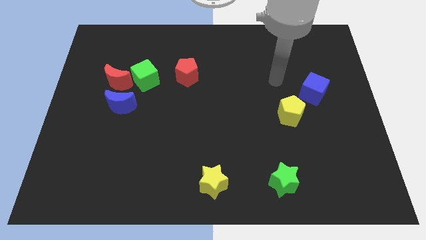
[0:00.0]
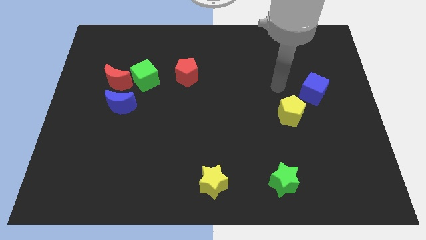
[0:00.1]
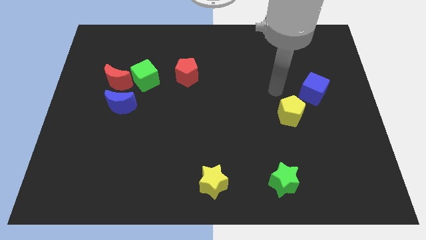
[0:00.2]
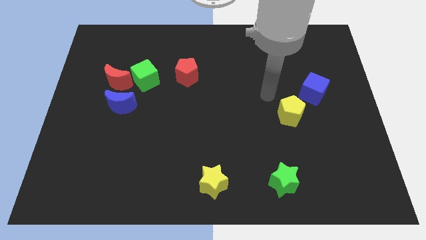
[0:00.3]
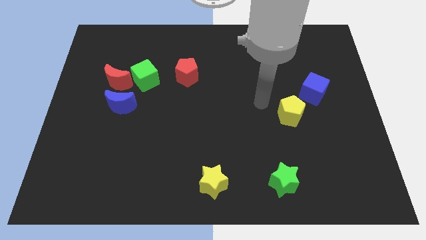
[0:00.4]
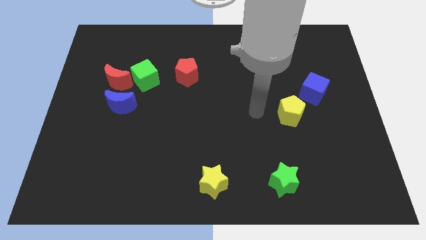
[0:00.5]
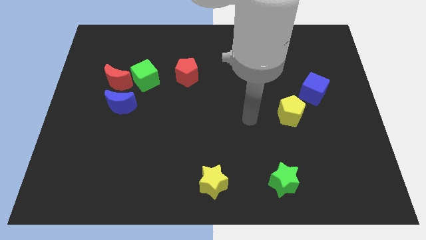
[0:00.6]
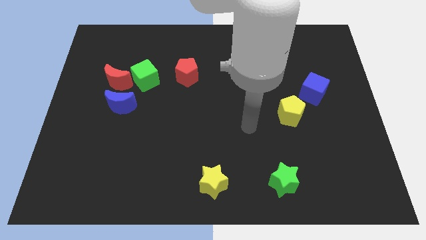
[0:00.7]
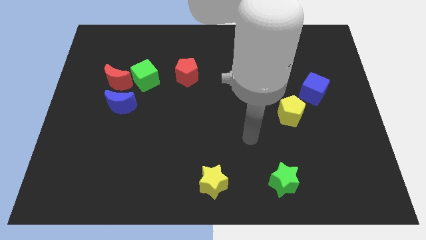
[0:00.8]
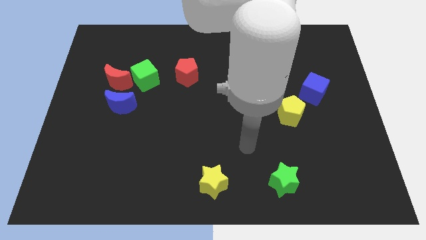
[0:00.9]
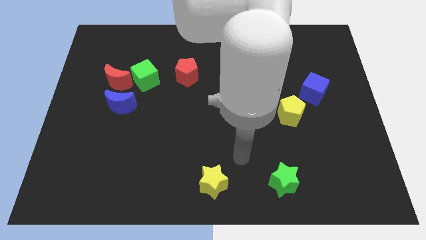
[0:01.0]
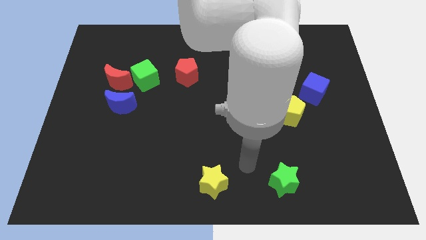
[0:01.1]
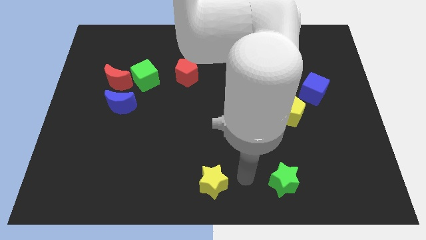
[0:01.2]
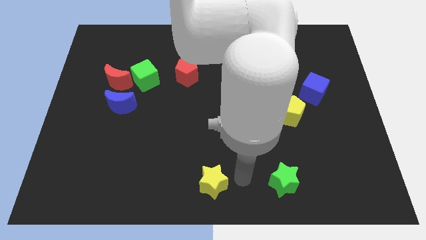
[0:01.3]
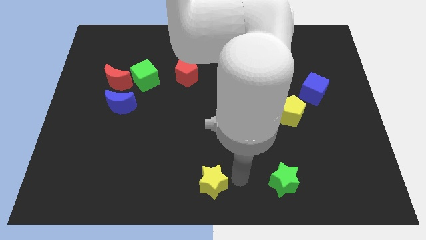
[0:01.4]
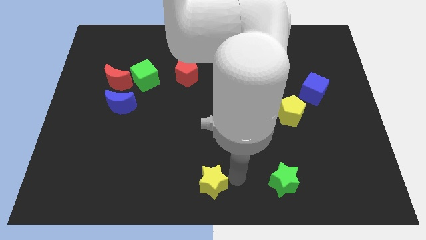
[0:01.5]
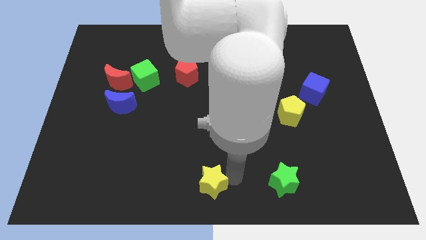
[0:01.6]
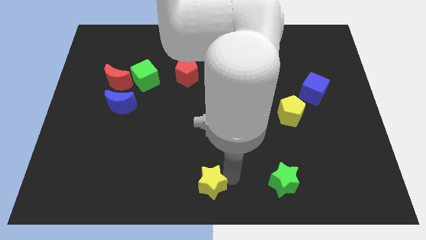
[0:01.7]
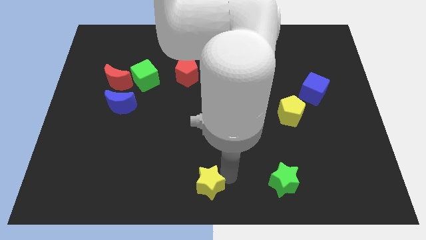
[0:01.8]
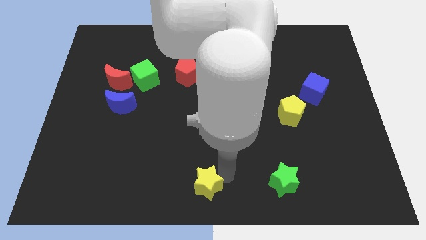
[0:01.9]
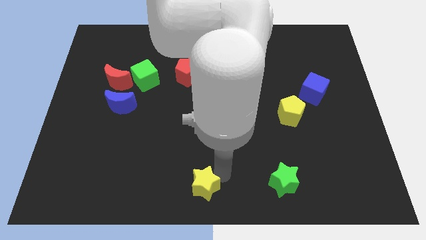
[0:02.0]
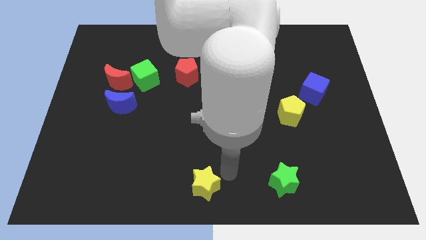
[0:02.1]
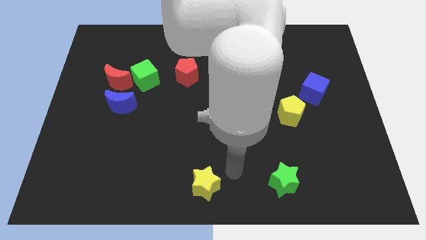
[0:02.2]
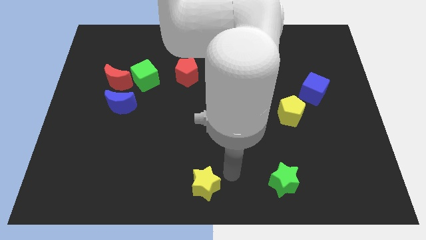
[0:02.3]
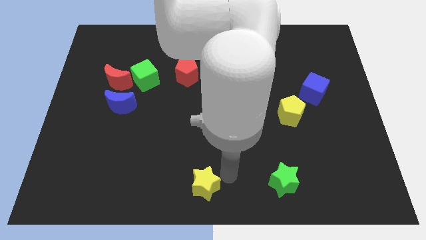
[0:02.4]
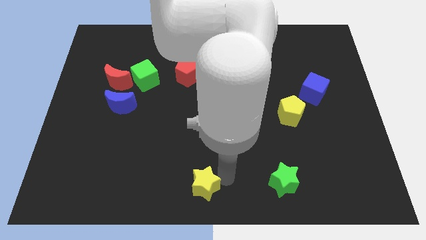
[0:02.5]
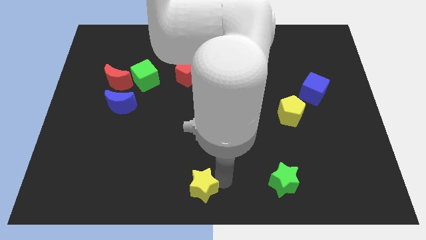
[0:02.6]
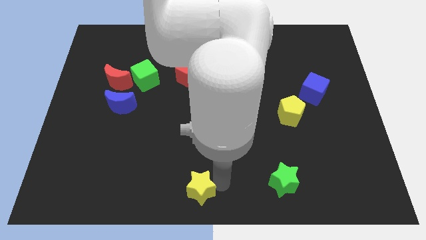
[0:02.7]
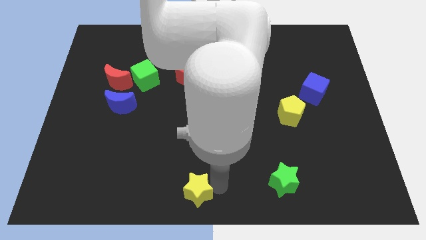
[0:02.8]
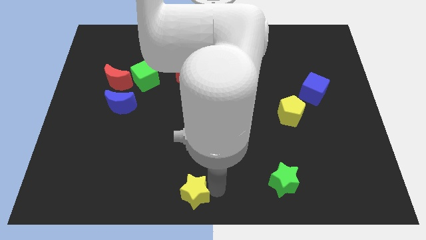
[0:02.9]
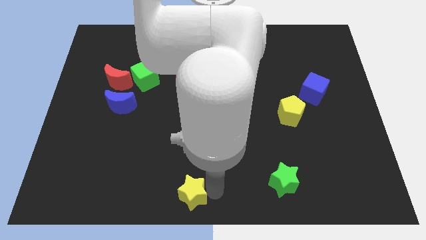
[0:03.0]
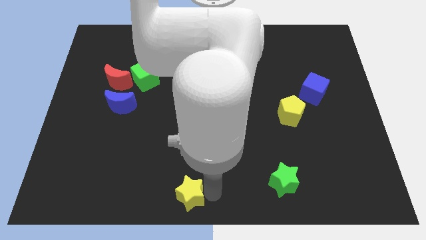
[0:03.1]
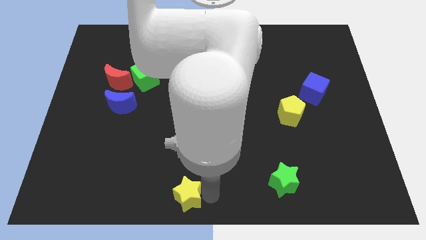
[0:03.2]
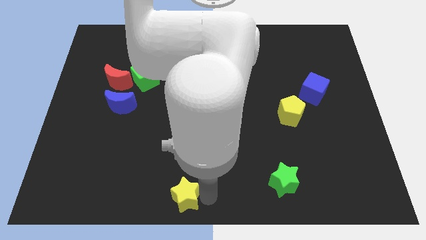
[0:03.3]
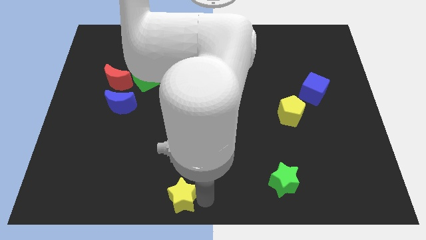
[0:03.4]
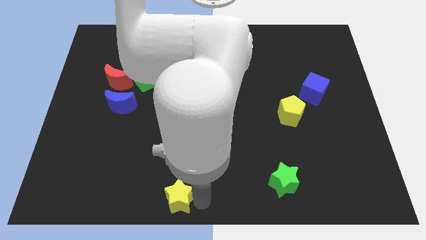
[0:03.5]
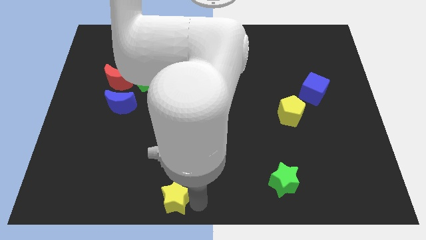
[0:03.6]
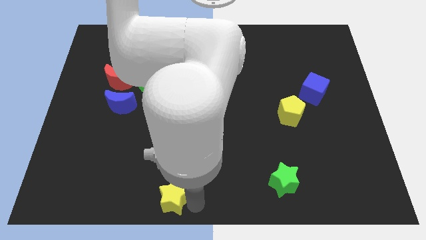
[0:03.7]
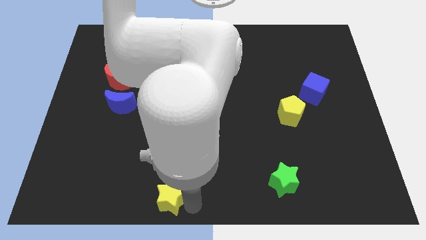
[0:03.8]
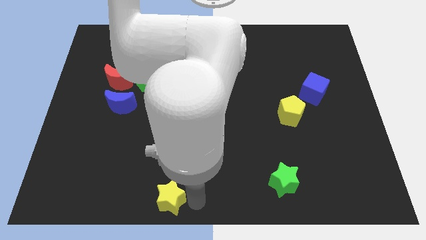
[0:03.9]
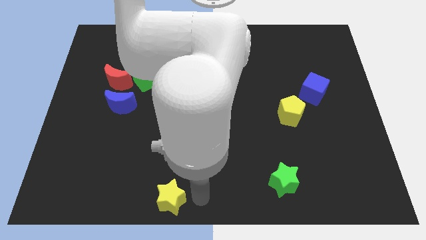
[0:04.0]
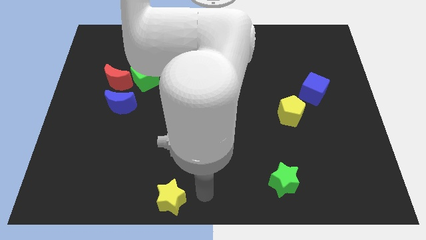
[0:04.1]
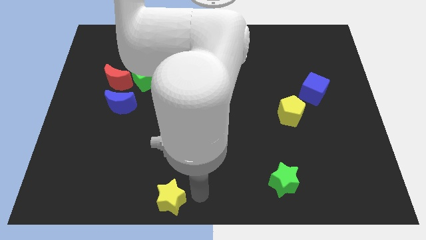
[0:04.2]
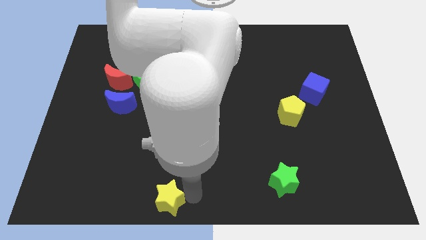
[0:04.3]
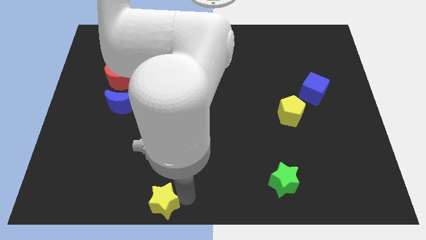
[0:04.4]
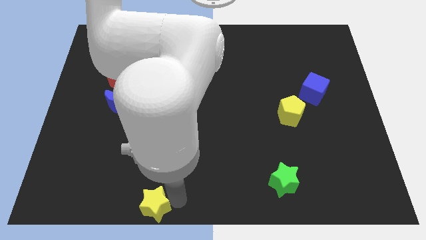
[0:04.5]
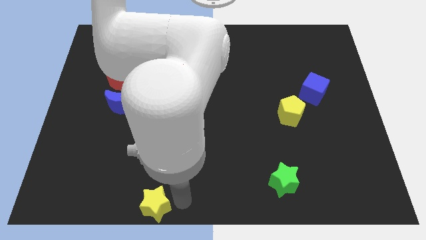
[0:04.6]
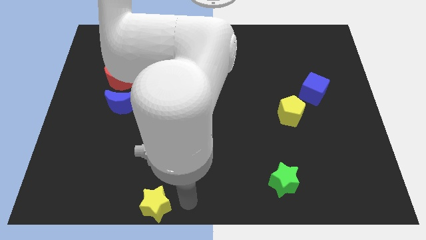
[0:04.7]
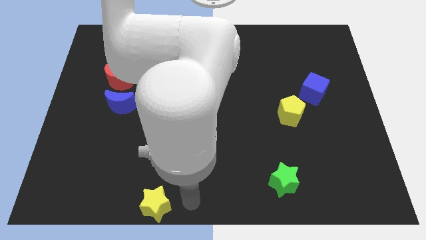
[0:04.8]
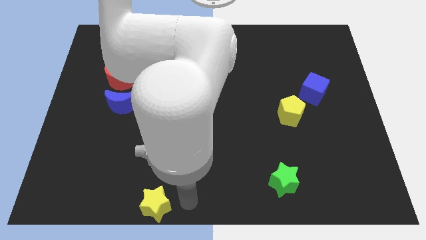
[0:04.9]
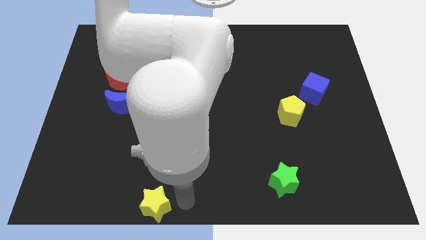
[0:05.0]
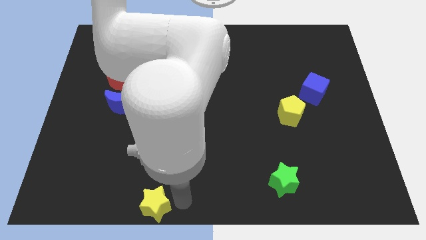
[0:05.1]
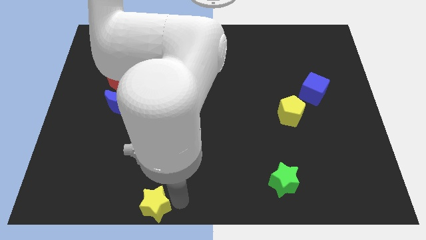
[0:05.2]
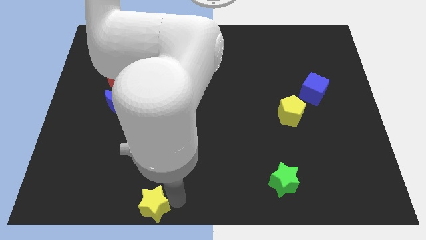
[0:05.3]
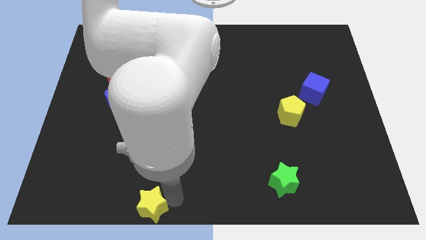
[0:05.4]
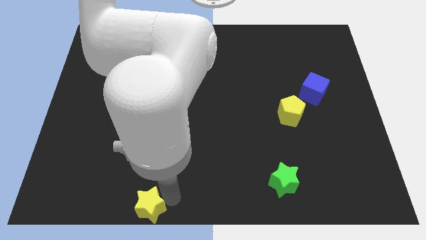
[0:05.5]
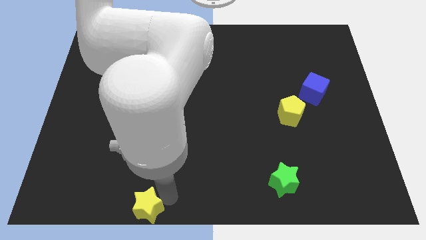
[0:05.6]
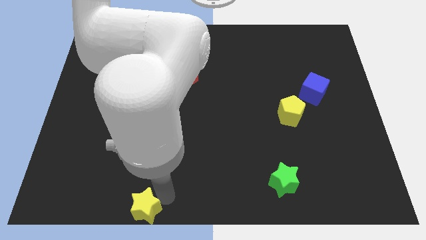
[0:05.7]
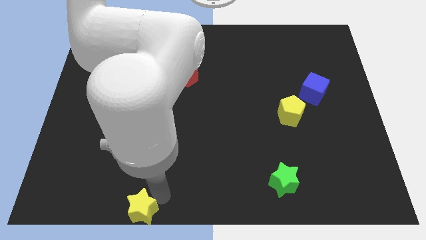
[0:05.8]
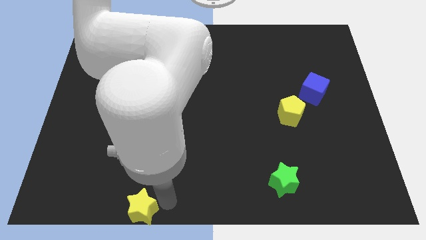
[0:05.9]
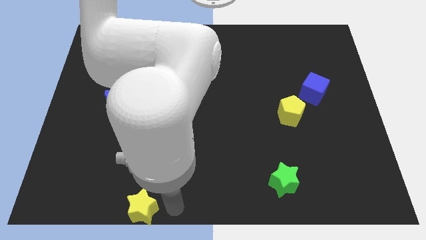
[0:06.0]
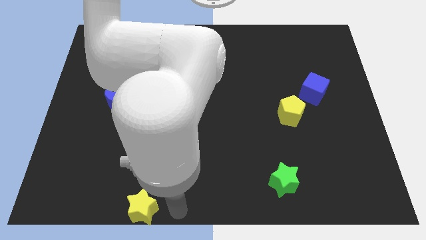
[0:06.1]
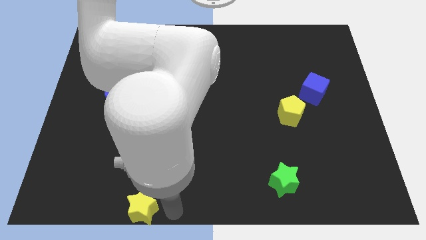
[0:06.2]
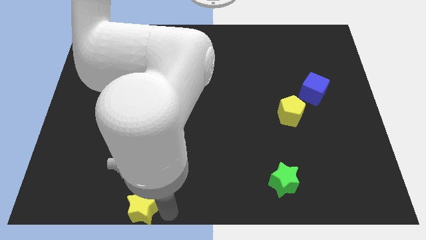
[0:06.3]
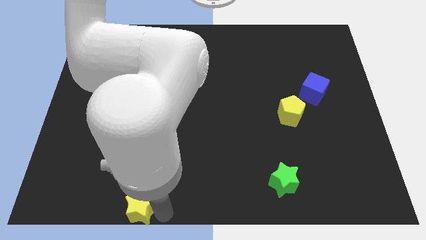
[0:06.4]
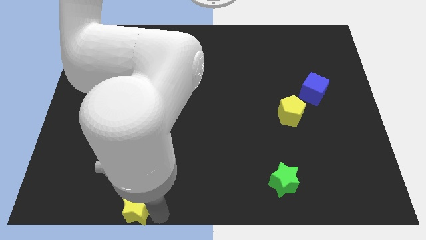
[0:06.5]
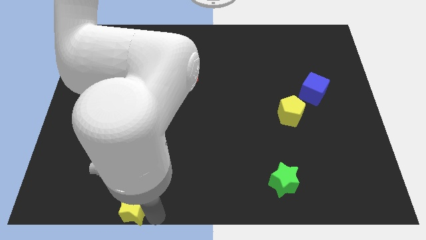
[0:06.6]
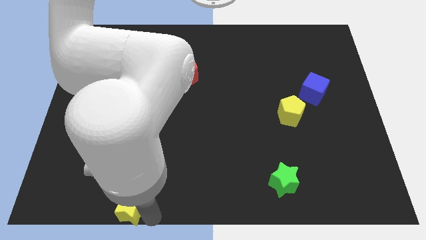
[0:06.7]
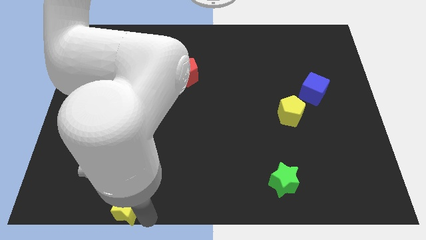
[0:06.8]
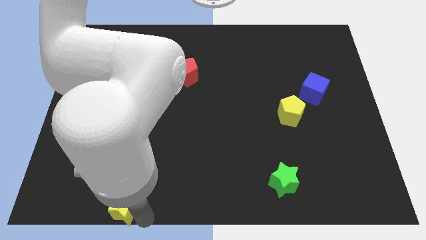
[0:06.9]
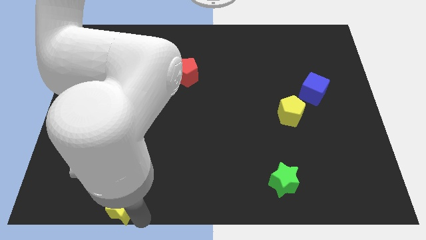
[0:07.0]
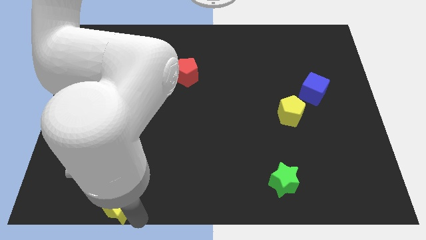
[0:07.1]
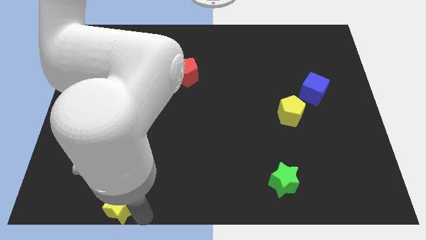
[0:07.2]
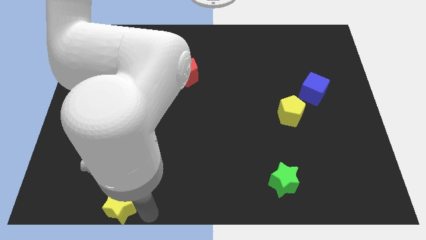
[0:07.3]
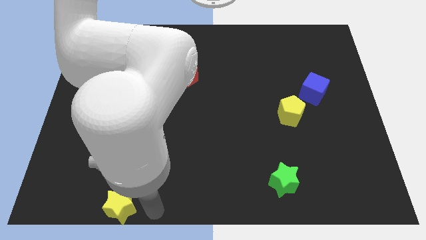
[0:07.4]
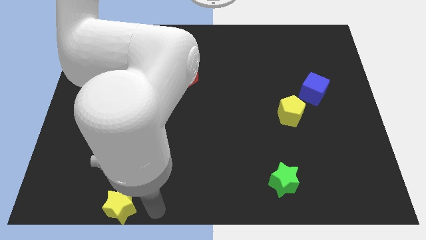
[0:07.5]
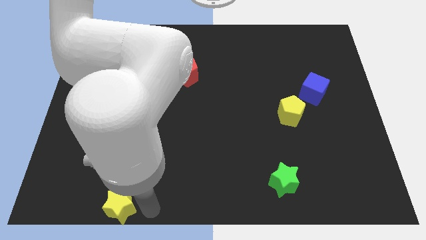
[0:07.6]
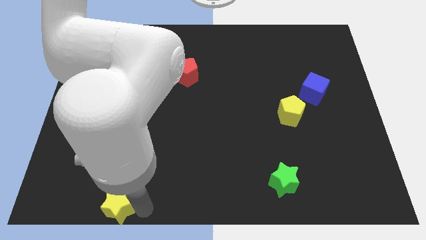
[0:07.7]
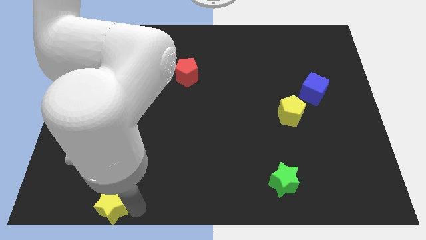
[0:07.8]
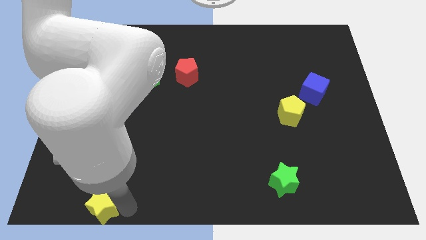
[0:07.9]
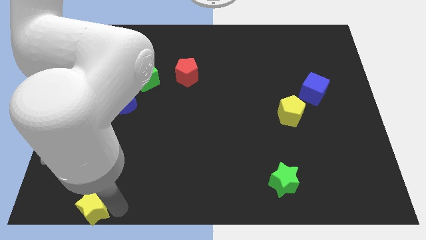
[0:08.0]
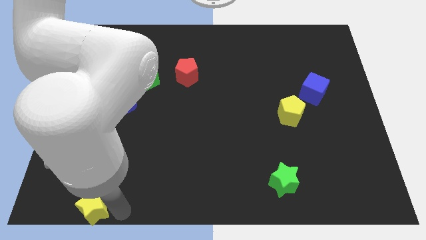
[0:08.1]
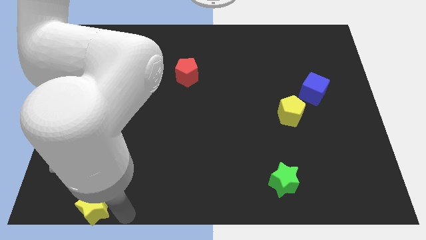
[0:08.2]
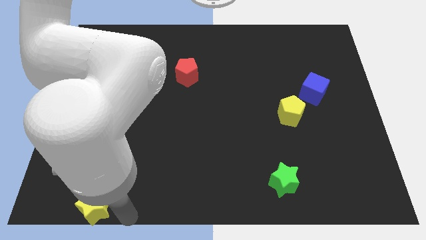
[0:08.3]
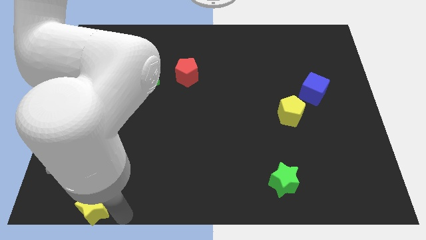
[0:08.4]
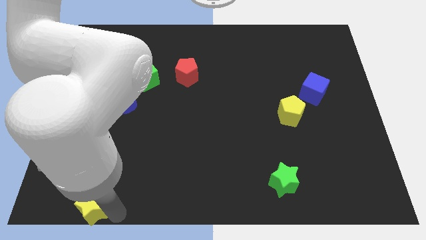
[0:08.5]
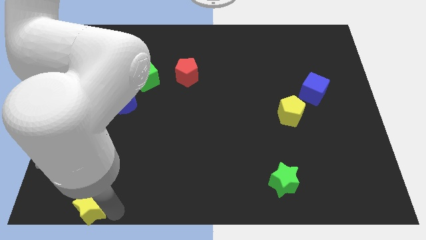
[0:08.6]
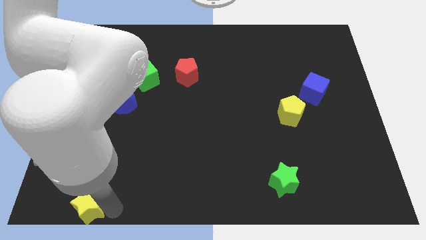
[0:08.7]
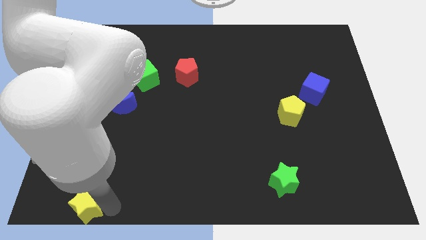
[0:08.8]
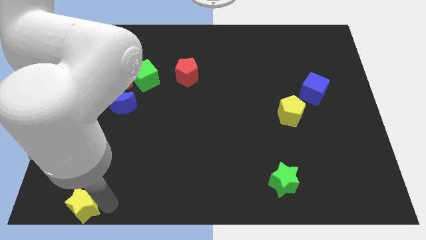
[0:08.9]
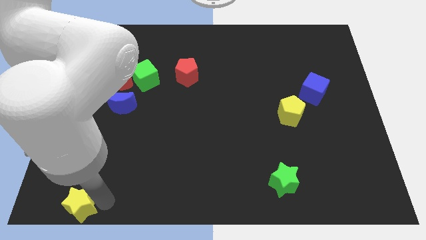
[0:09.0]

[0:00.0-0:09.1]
push the yellow star to the bottom left of the board
